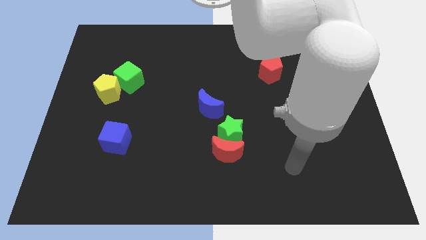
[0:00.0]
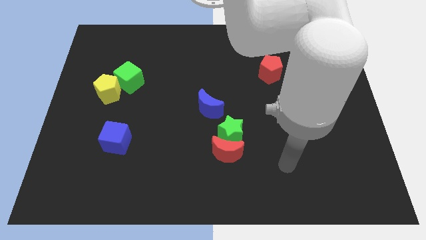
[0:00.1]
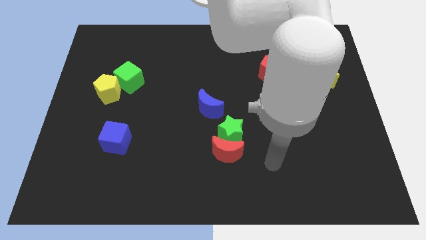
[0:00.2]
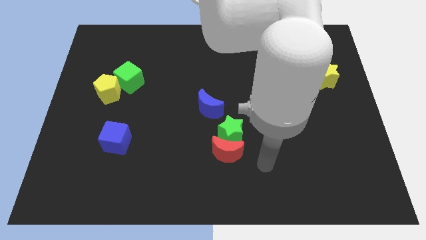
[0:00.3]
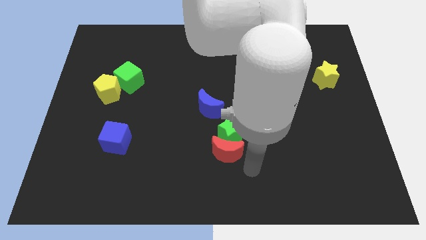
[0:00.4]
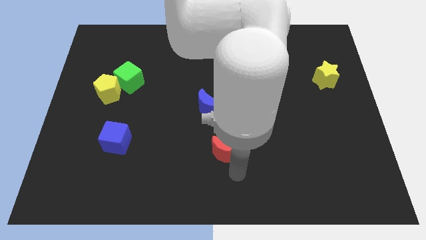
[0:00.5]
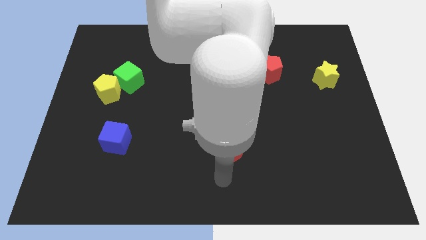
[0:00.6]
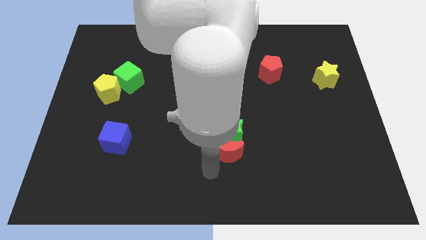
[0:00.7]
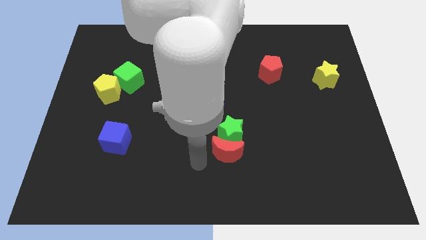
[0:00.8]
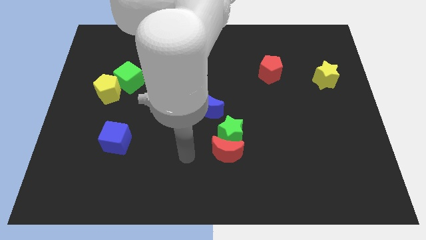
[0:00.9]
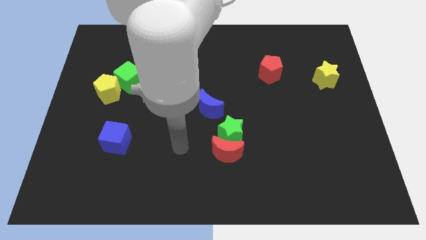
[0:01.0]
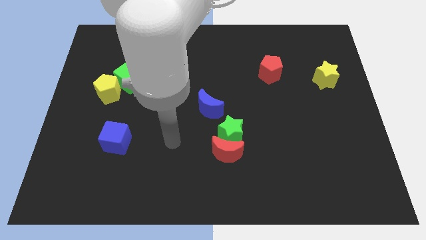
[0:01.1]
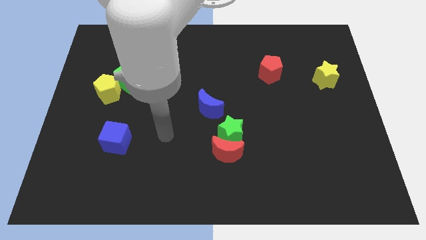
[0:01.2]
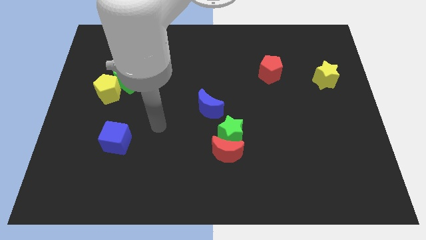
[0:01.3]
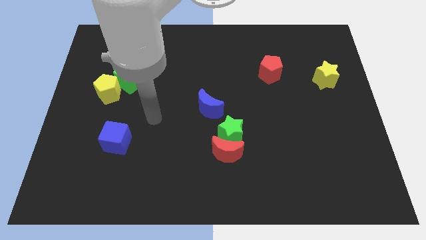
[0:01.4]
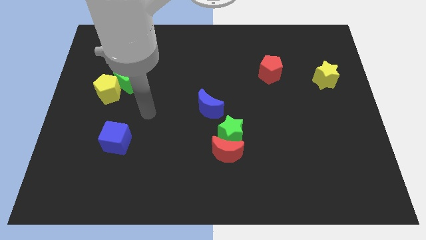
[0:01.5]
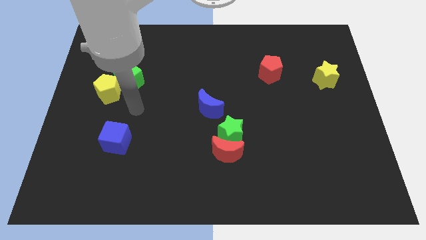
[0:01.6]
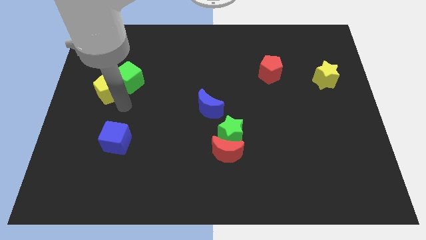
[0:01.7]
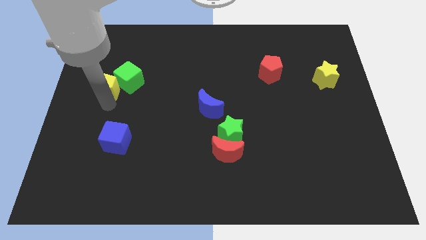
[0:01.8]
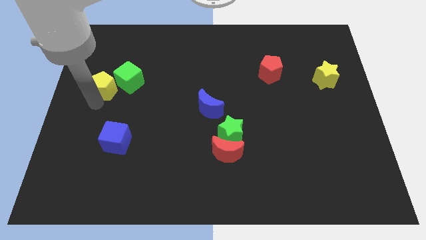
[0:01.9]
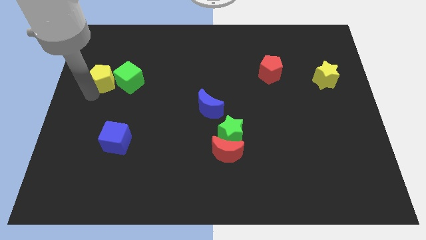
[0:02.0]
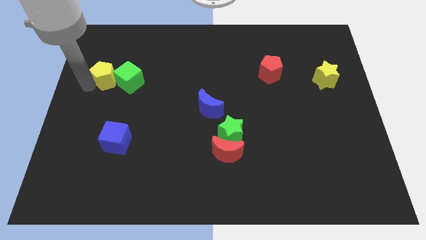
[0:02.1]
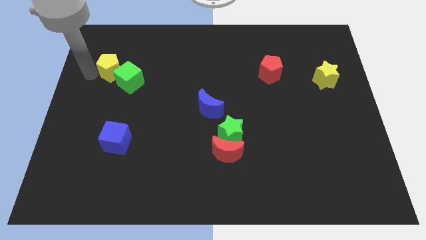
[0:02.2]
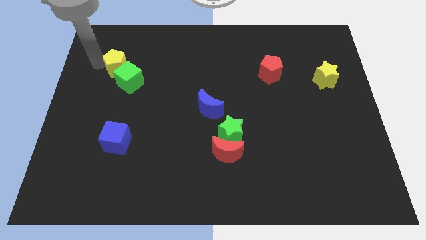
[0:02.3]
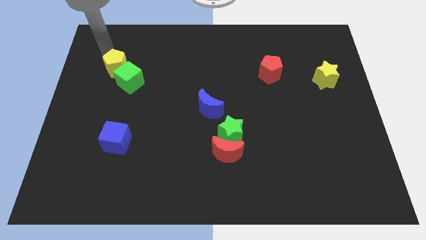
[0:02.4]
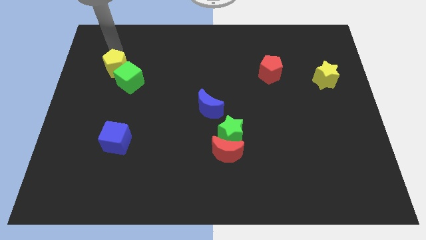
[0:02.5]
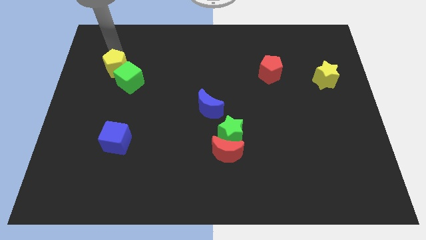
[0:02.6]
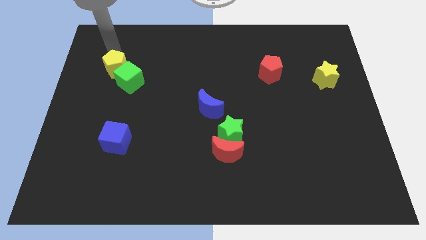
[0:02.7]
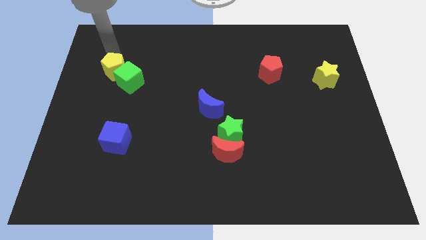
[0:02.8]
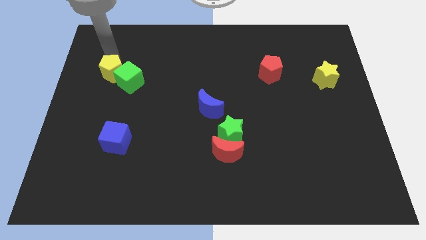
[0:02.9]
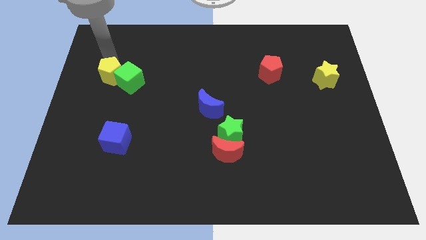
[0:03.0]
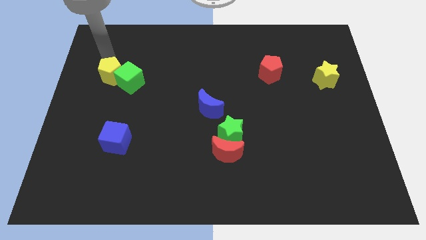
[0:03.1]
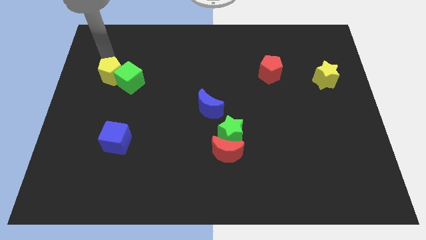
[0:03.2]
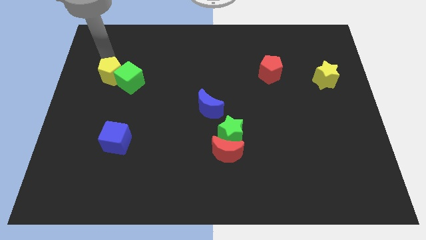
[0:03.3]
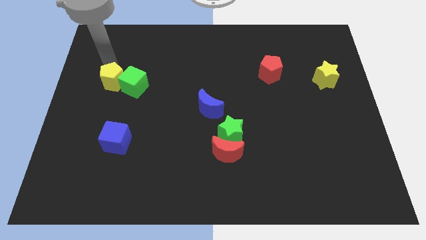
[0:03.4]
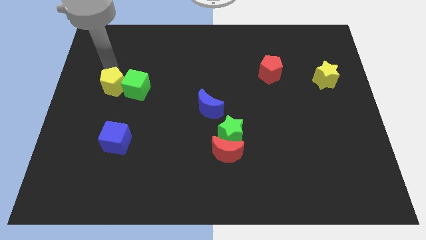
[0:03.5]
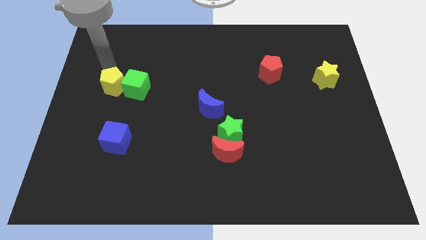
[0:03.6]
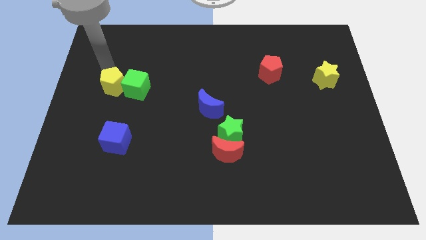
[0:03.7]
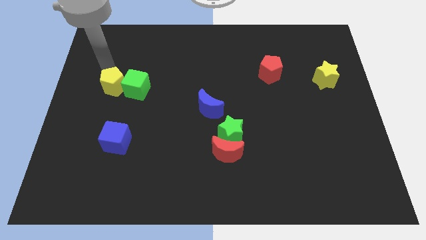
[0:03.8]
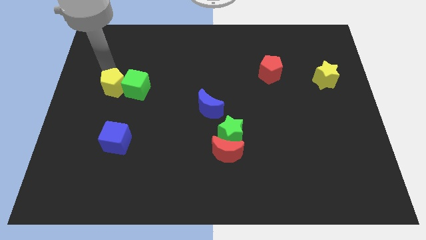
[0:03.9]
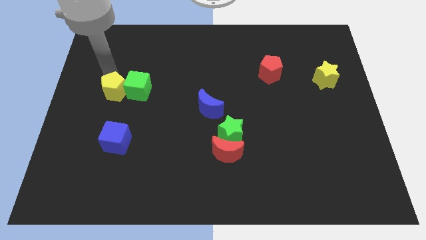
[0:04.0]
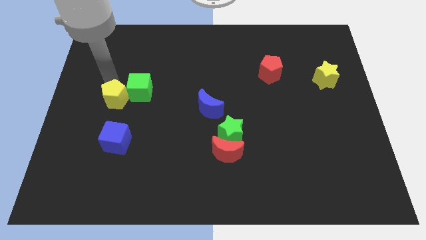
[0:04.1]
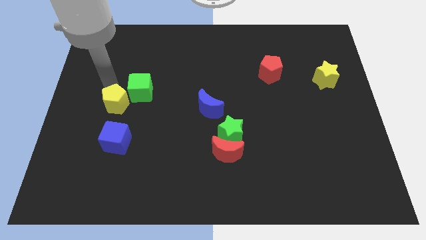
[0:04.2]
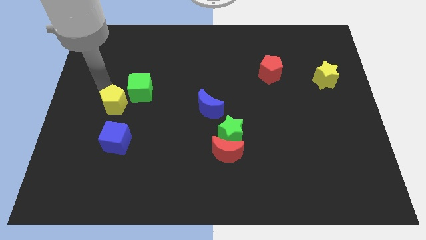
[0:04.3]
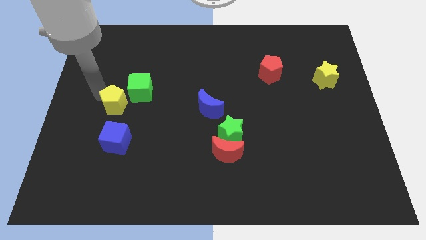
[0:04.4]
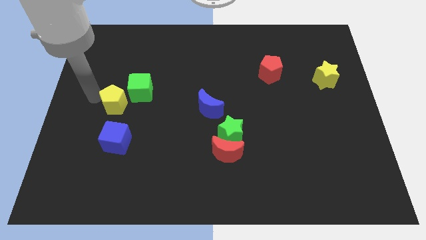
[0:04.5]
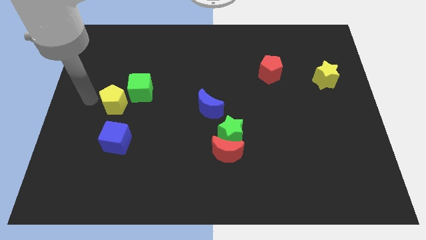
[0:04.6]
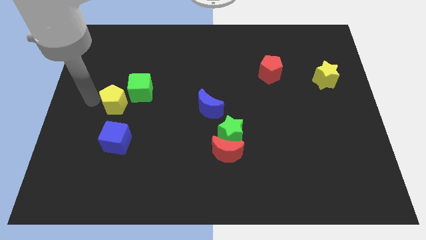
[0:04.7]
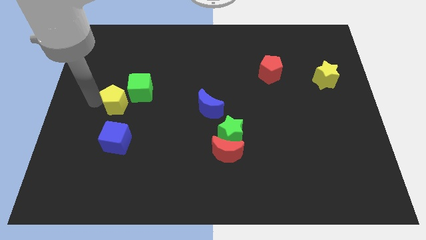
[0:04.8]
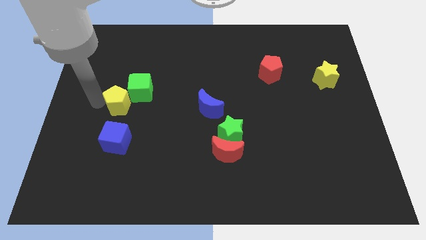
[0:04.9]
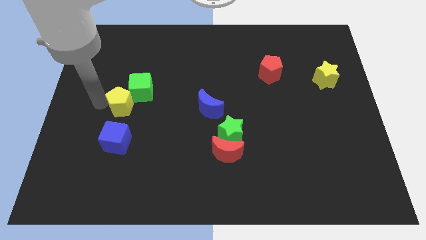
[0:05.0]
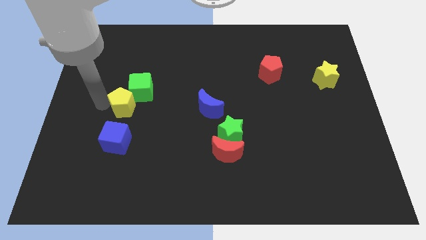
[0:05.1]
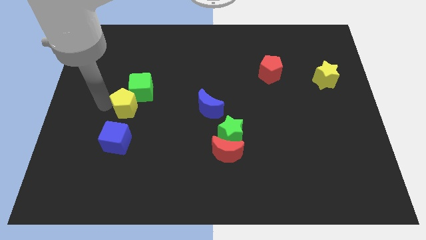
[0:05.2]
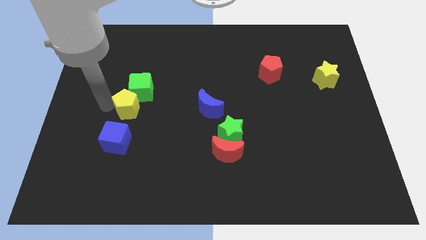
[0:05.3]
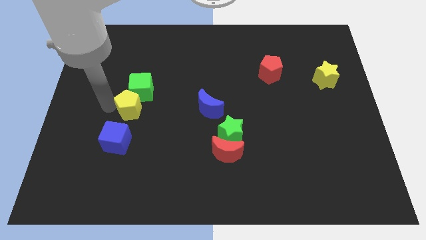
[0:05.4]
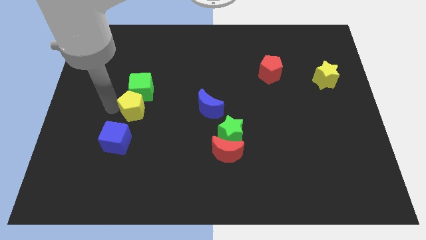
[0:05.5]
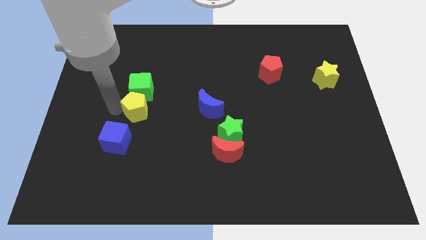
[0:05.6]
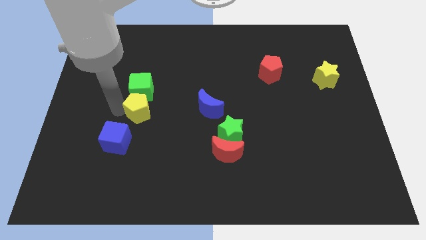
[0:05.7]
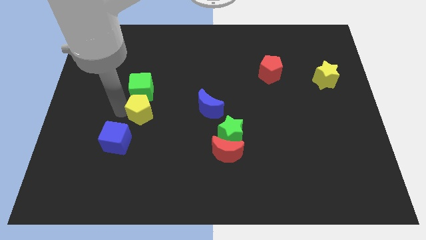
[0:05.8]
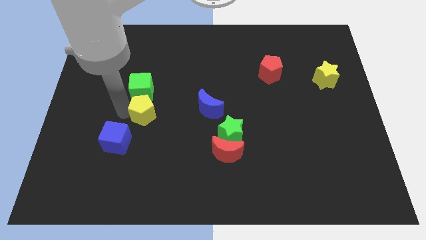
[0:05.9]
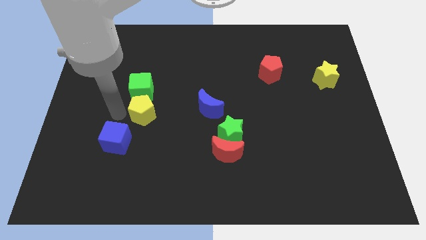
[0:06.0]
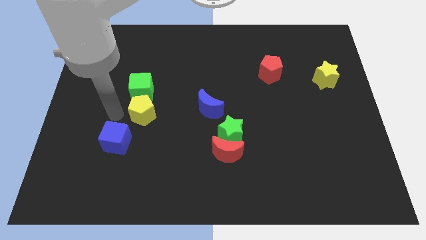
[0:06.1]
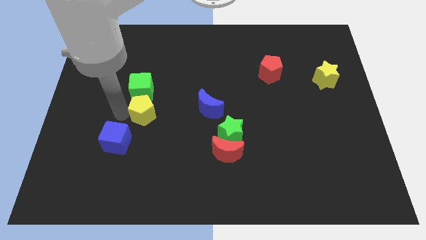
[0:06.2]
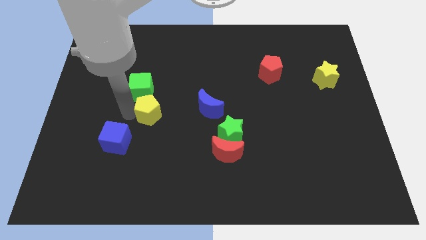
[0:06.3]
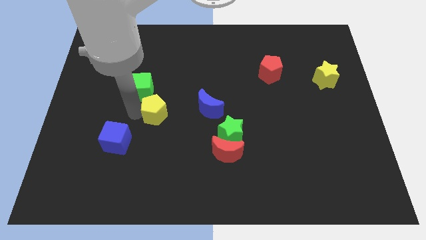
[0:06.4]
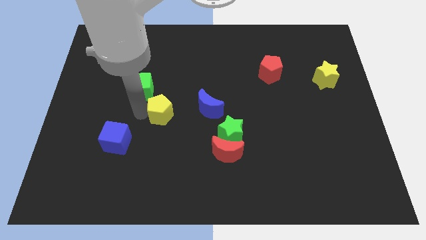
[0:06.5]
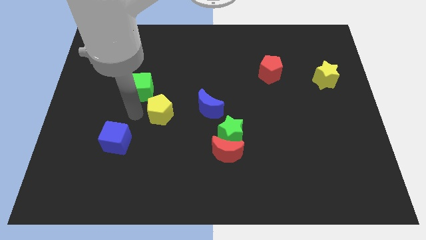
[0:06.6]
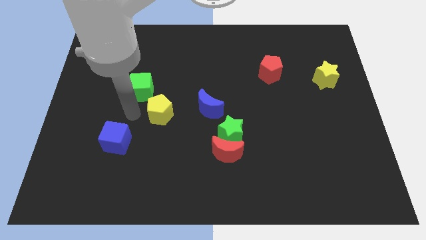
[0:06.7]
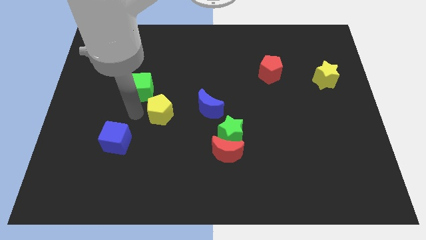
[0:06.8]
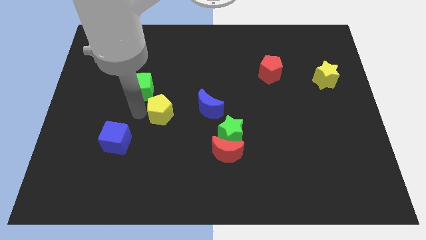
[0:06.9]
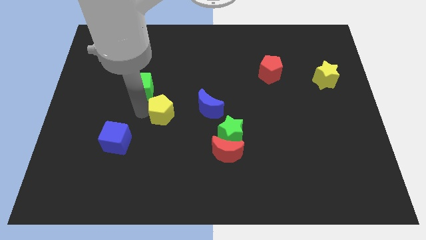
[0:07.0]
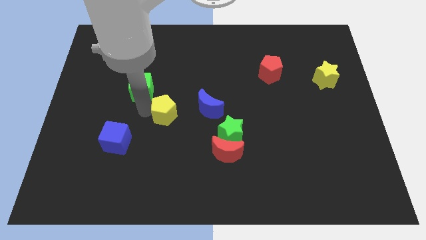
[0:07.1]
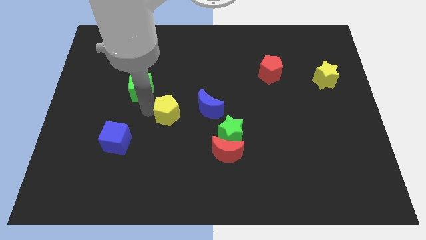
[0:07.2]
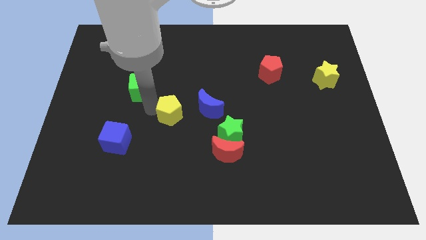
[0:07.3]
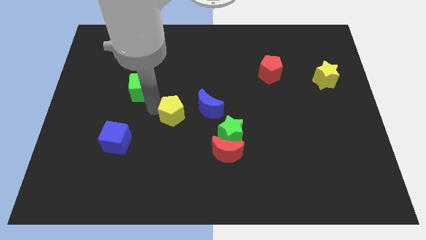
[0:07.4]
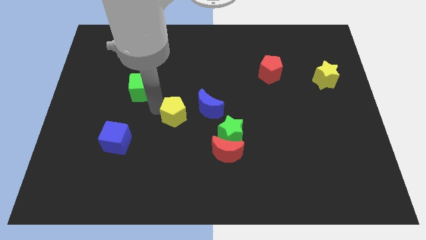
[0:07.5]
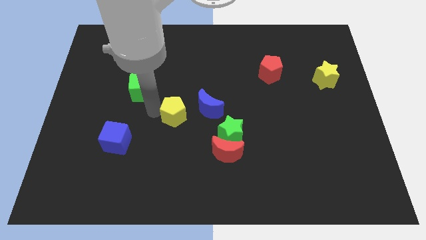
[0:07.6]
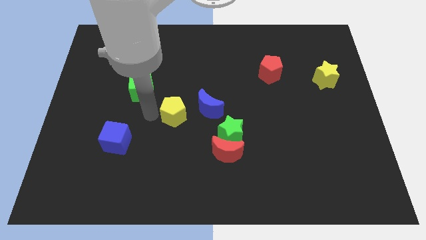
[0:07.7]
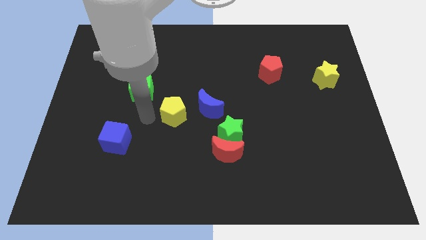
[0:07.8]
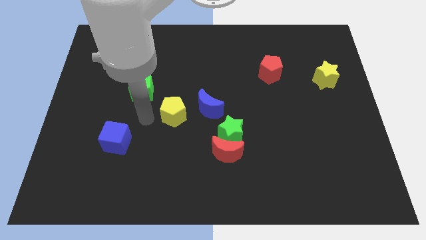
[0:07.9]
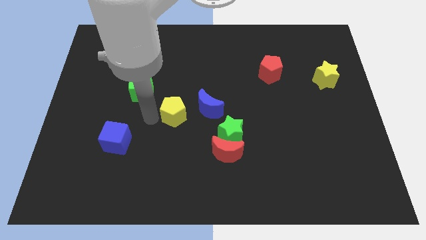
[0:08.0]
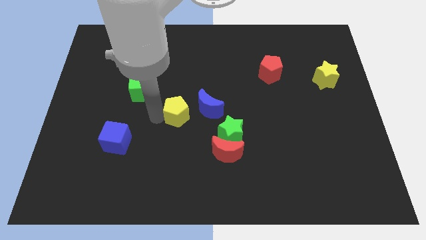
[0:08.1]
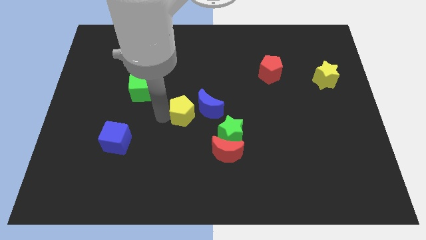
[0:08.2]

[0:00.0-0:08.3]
slide the yellow pentagon to the blue moon
